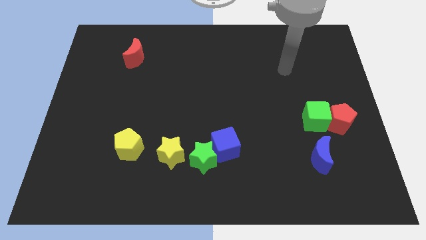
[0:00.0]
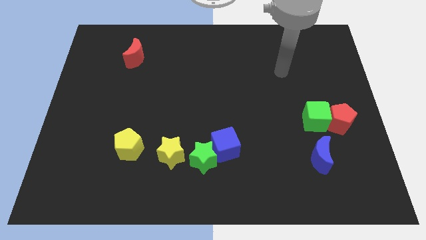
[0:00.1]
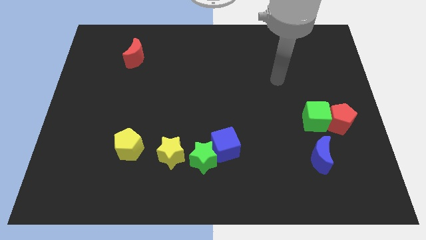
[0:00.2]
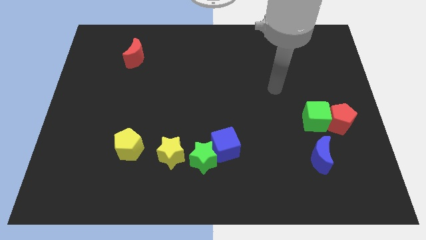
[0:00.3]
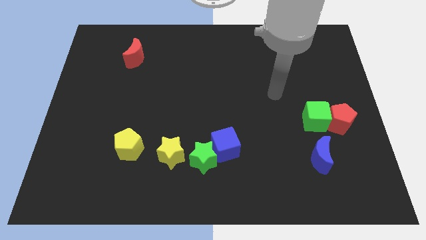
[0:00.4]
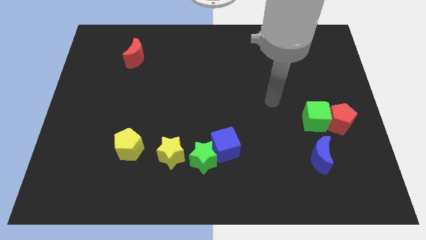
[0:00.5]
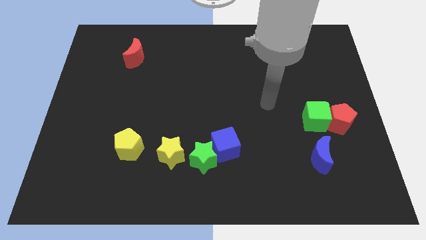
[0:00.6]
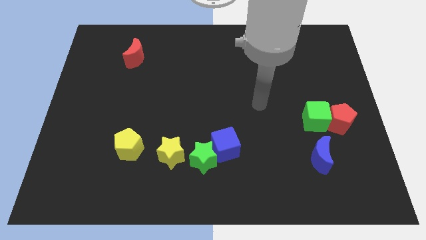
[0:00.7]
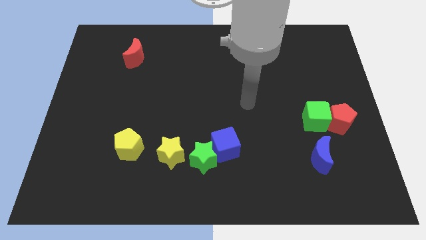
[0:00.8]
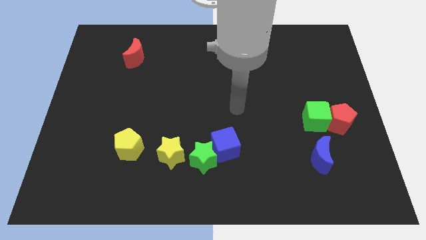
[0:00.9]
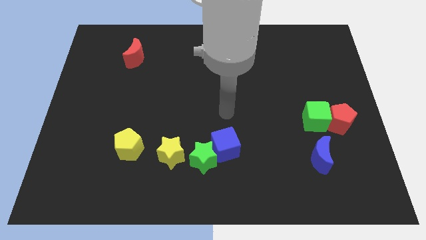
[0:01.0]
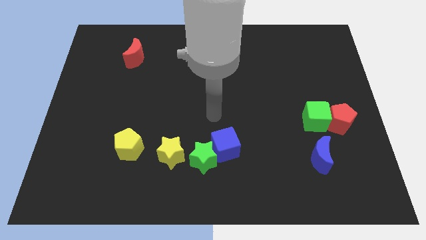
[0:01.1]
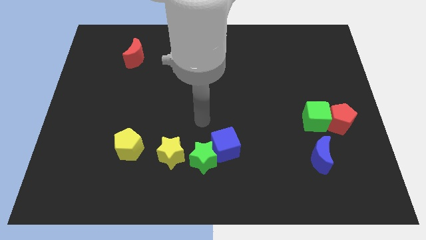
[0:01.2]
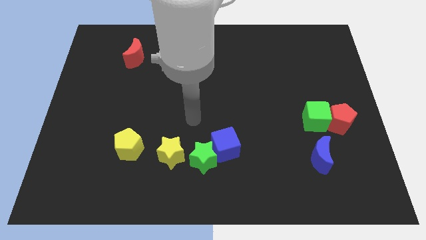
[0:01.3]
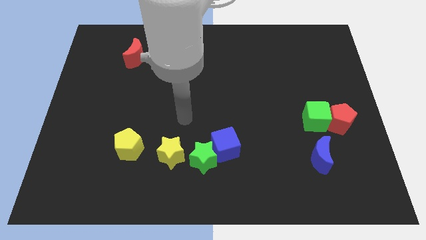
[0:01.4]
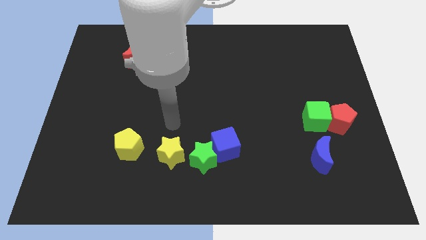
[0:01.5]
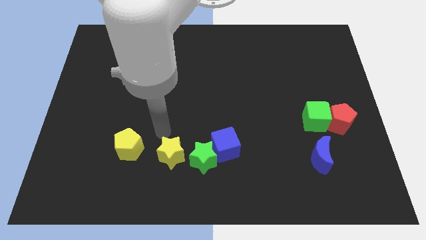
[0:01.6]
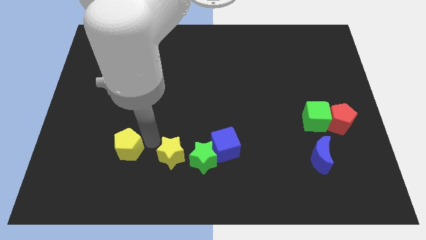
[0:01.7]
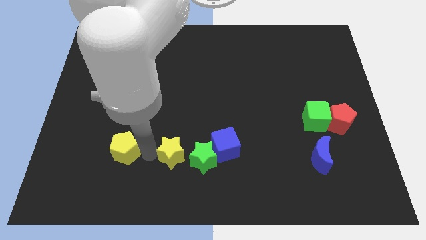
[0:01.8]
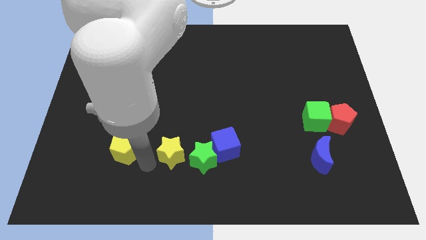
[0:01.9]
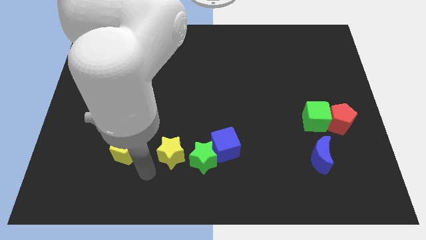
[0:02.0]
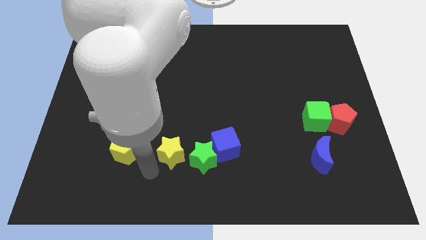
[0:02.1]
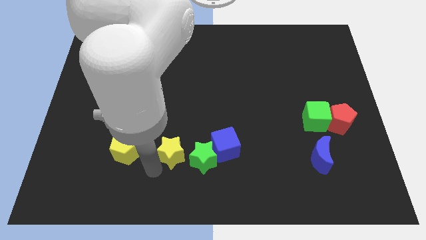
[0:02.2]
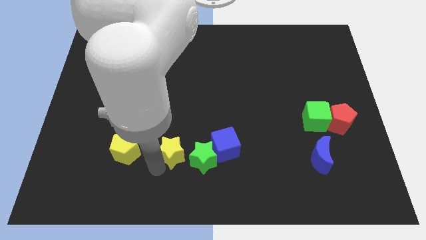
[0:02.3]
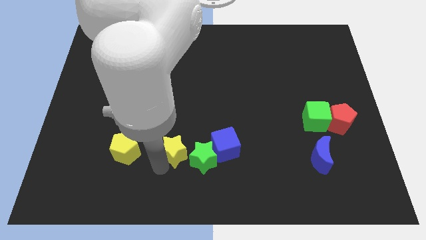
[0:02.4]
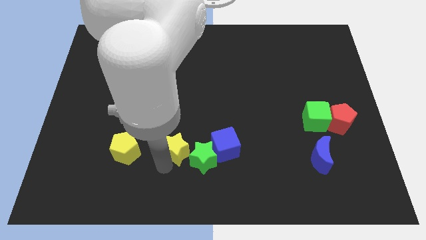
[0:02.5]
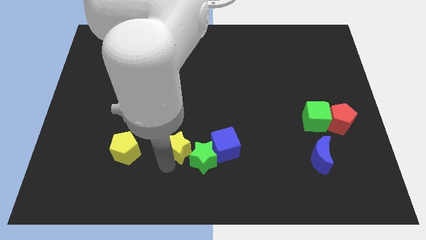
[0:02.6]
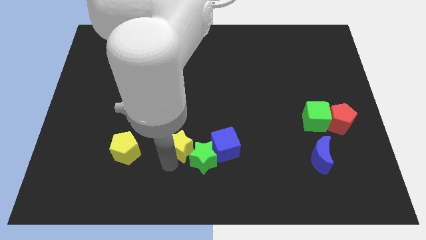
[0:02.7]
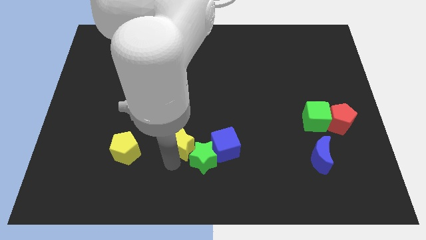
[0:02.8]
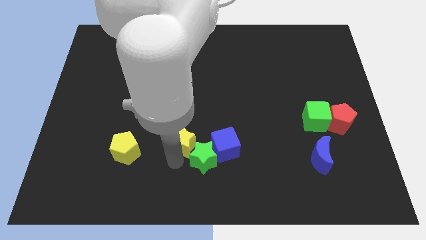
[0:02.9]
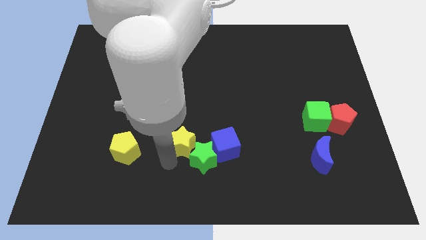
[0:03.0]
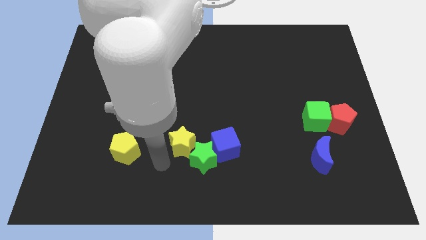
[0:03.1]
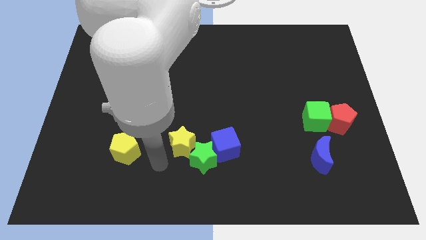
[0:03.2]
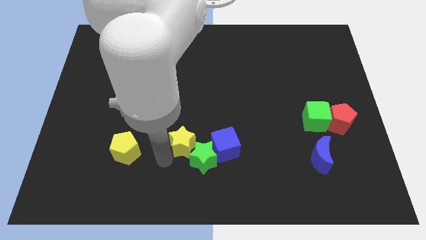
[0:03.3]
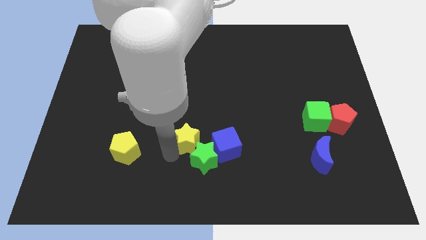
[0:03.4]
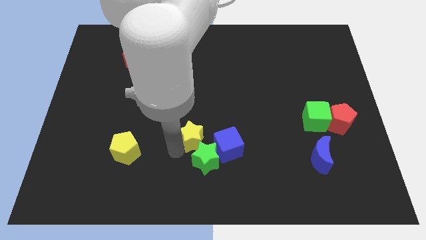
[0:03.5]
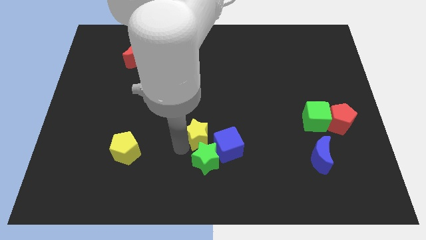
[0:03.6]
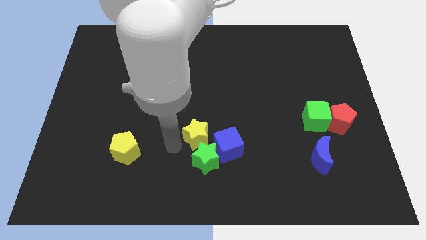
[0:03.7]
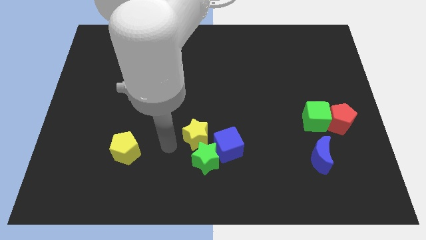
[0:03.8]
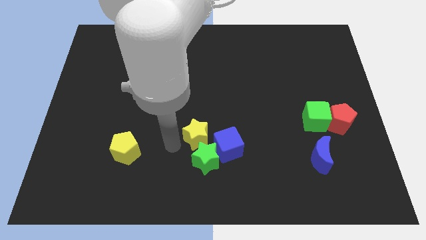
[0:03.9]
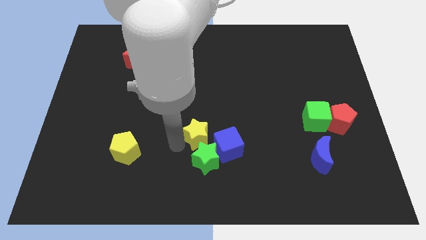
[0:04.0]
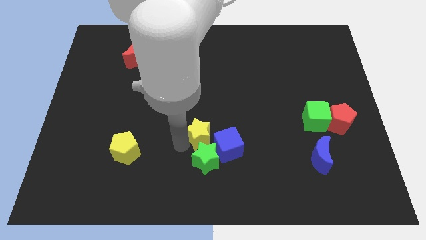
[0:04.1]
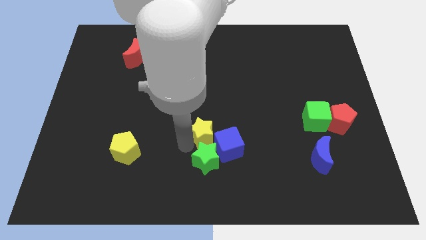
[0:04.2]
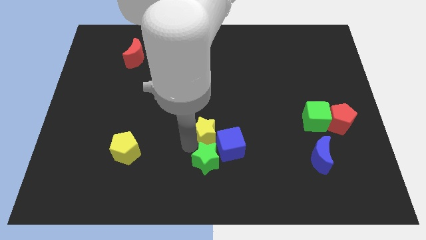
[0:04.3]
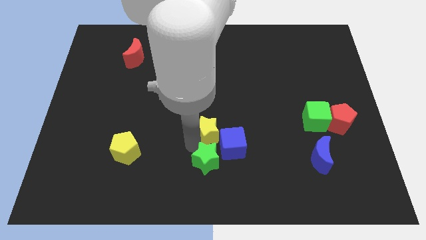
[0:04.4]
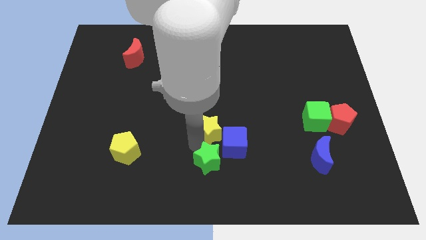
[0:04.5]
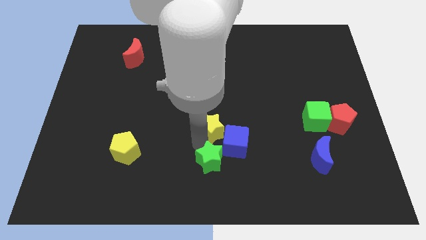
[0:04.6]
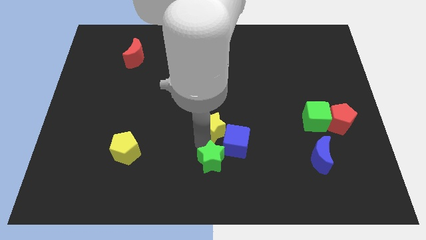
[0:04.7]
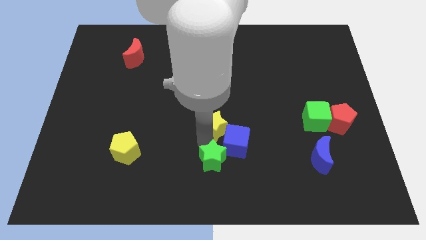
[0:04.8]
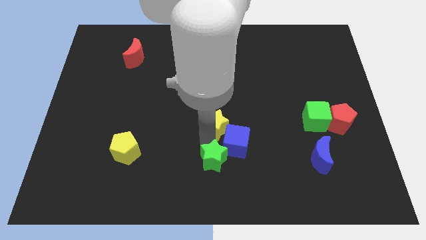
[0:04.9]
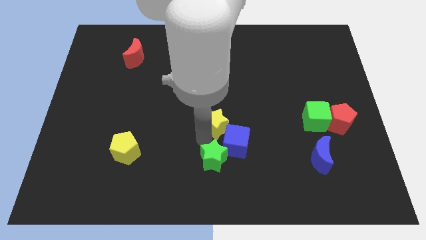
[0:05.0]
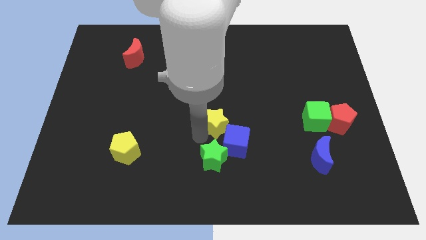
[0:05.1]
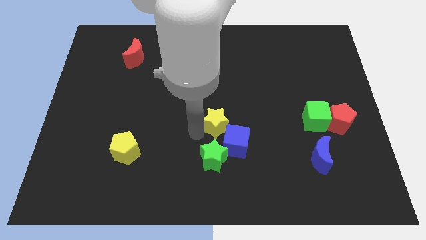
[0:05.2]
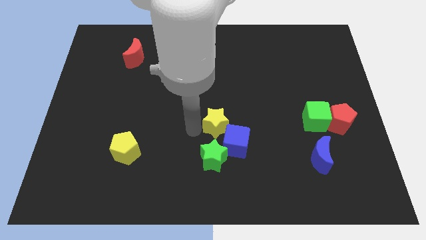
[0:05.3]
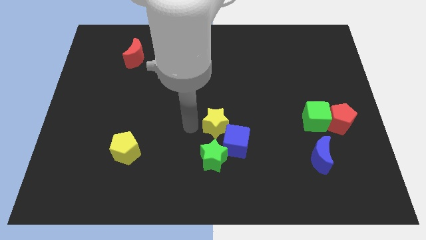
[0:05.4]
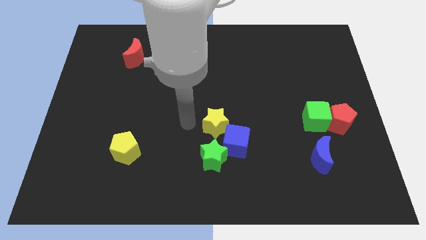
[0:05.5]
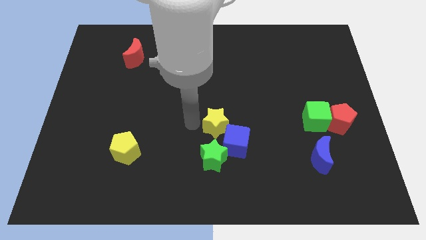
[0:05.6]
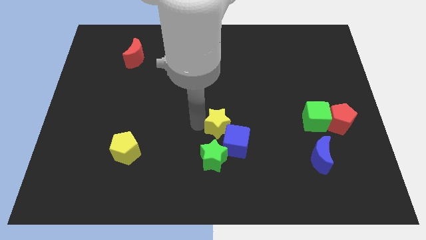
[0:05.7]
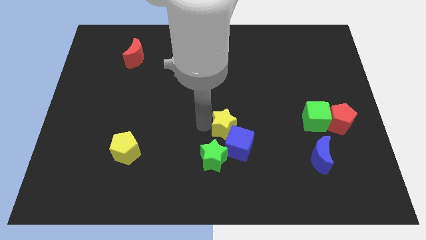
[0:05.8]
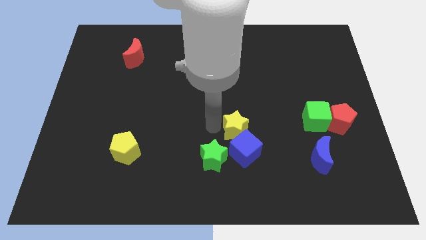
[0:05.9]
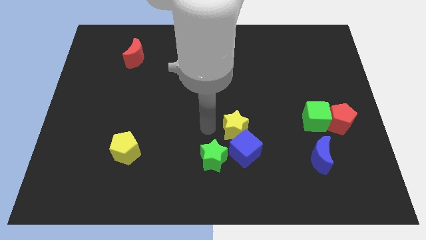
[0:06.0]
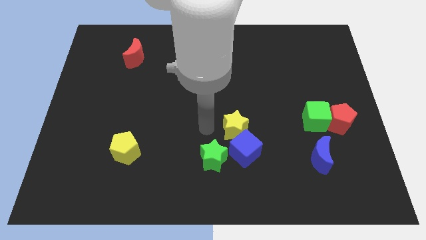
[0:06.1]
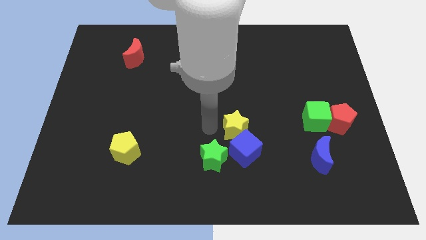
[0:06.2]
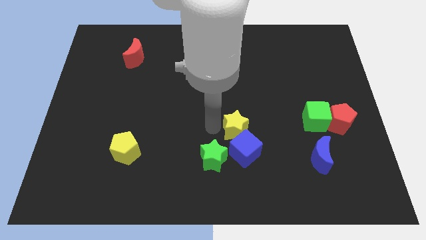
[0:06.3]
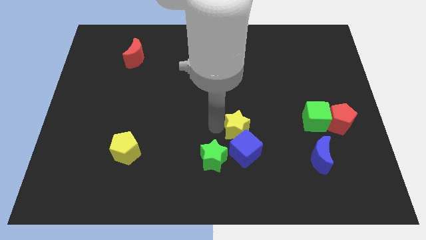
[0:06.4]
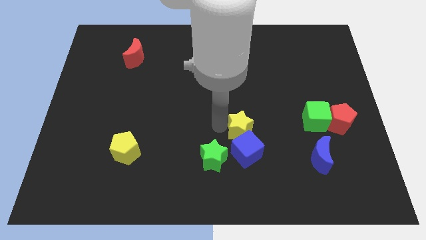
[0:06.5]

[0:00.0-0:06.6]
slide the yellow star diagonally up and to the right of the blue cube

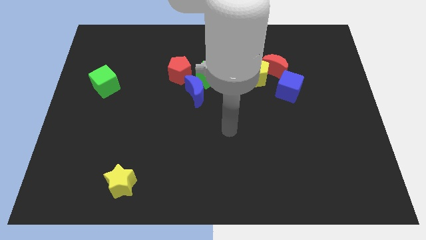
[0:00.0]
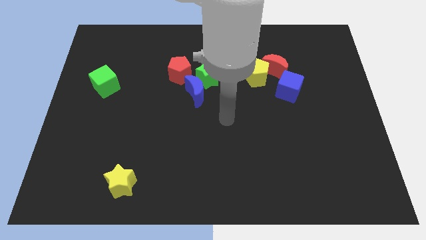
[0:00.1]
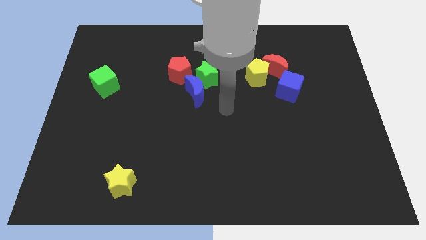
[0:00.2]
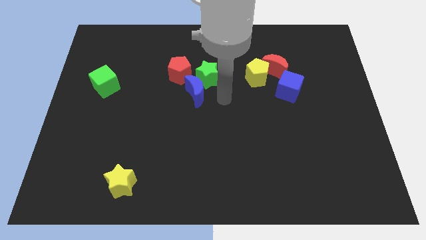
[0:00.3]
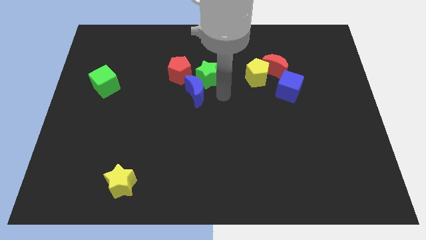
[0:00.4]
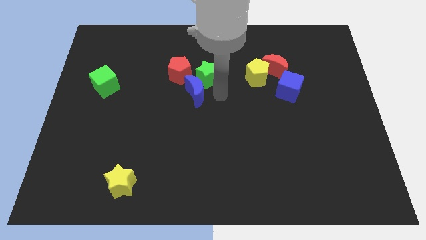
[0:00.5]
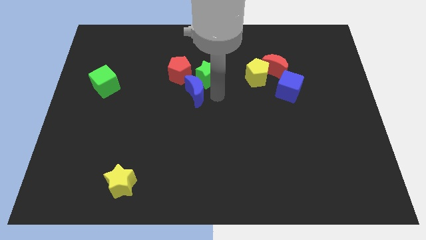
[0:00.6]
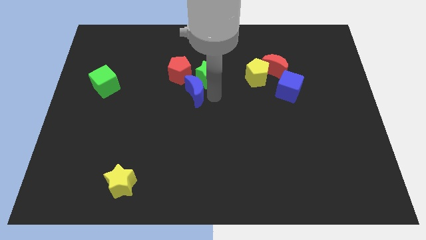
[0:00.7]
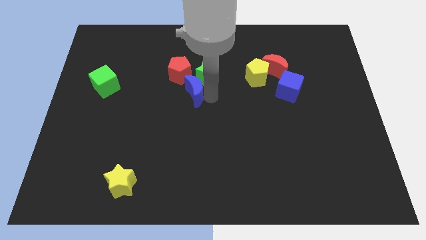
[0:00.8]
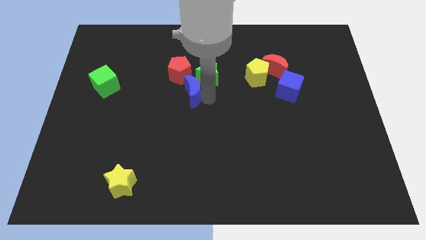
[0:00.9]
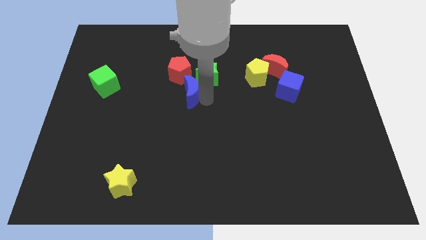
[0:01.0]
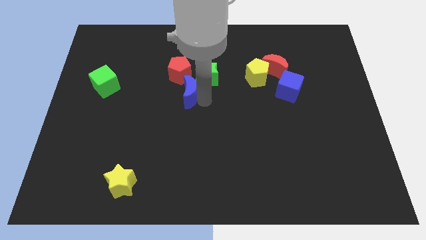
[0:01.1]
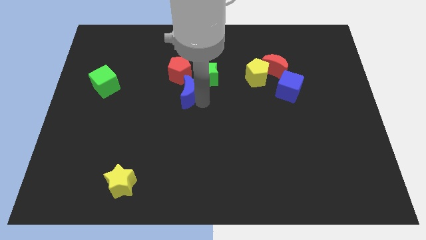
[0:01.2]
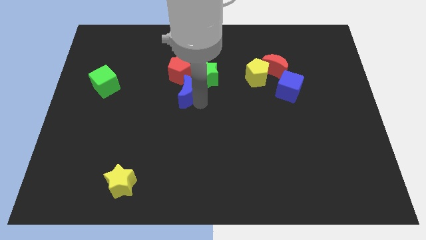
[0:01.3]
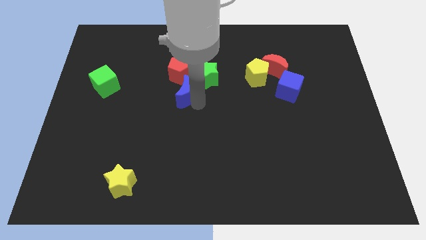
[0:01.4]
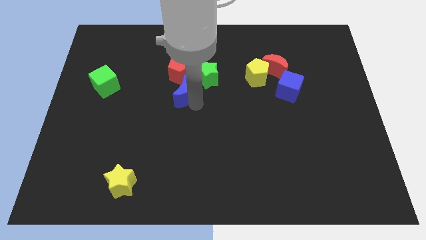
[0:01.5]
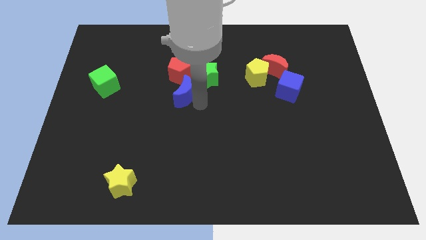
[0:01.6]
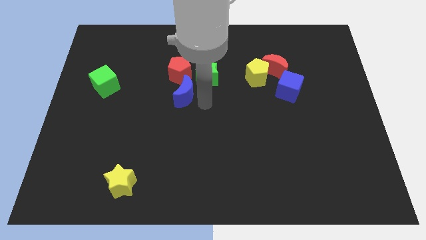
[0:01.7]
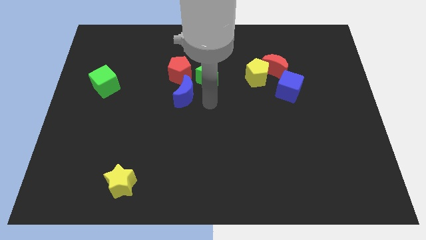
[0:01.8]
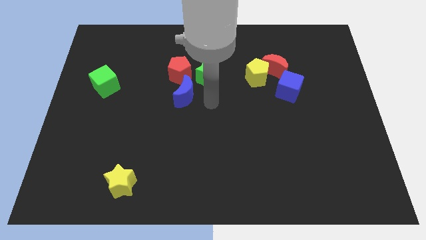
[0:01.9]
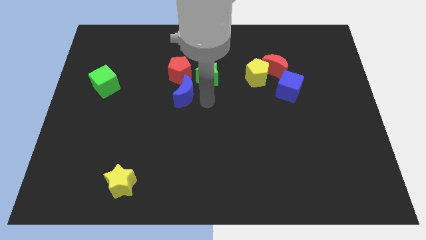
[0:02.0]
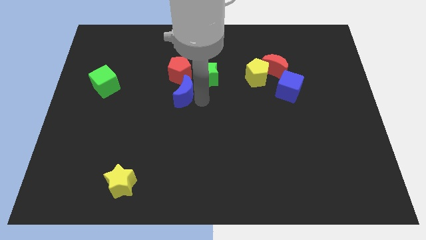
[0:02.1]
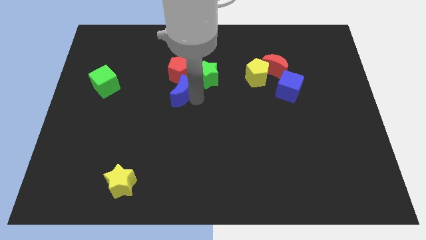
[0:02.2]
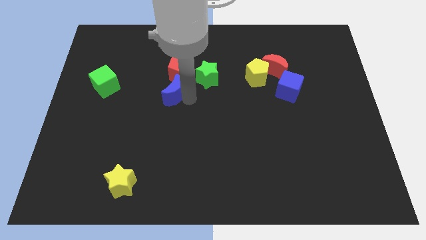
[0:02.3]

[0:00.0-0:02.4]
put the blue moon to the left side of the green star
